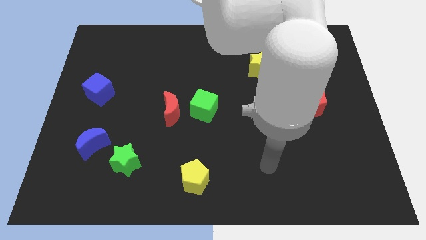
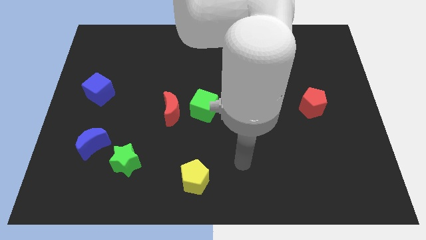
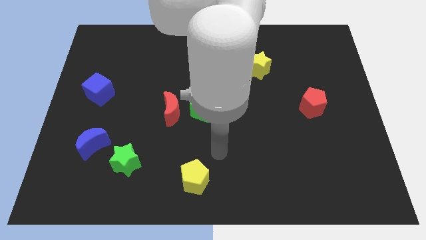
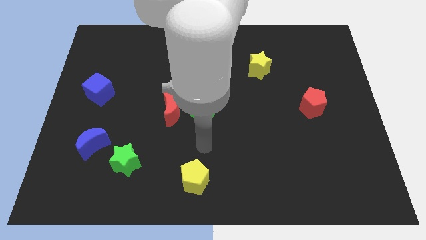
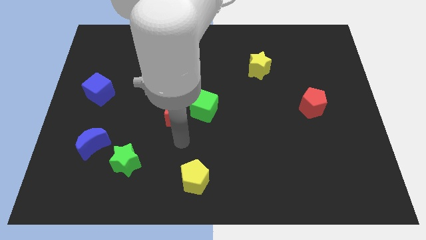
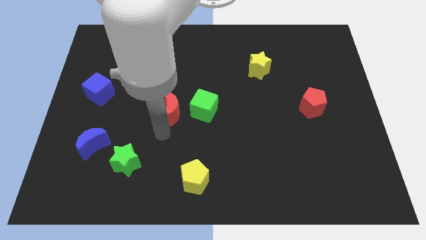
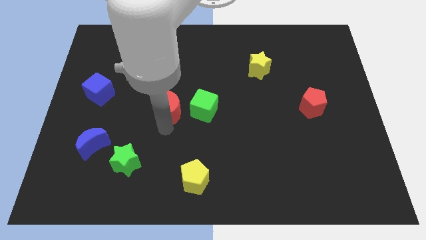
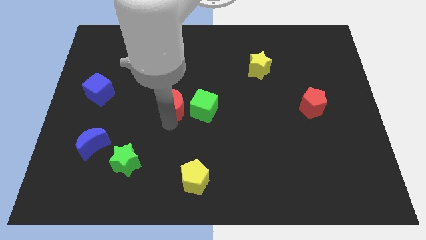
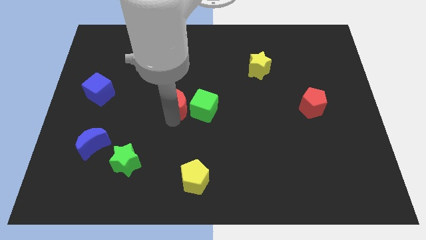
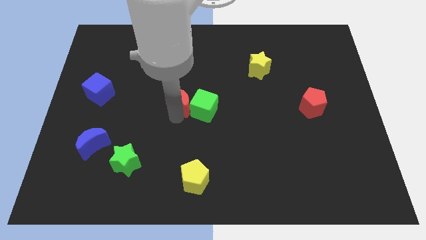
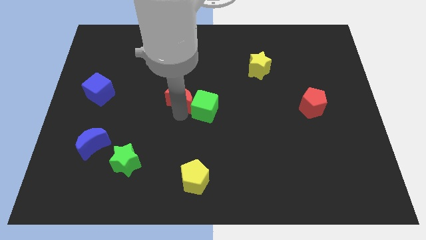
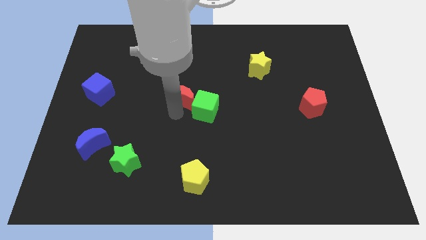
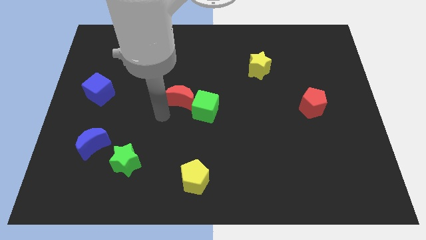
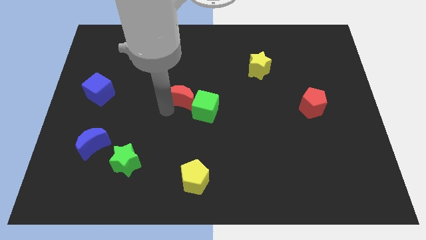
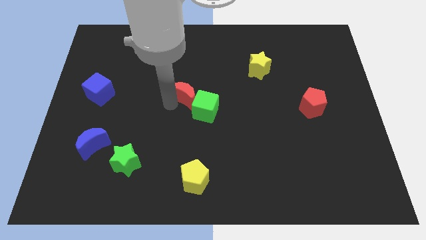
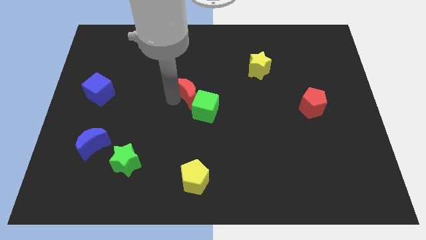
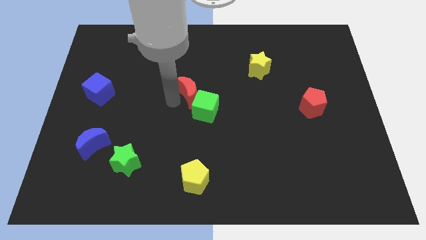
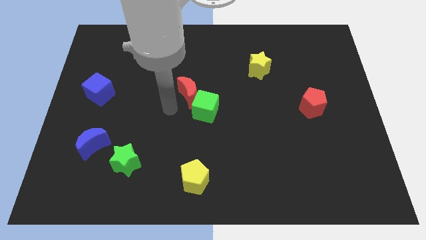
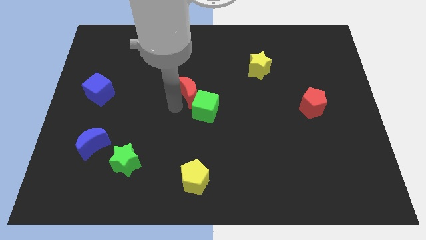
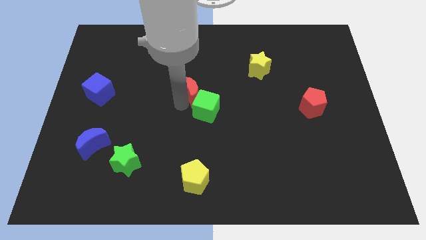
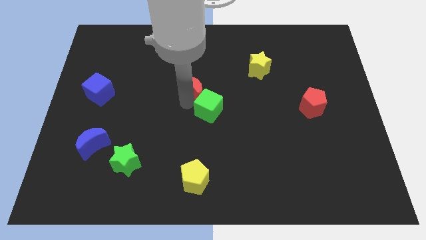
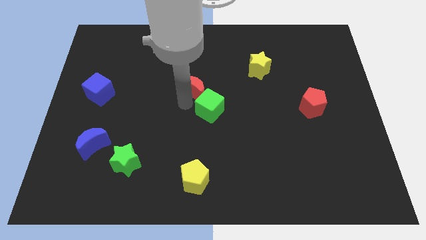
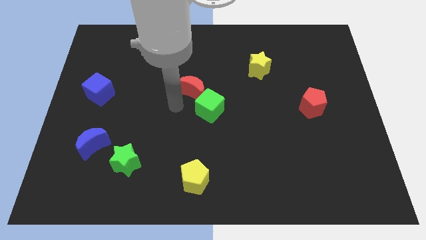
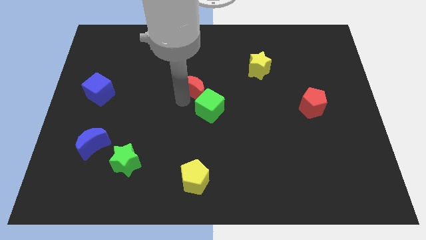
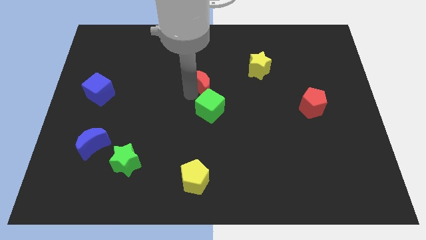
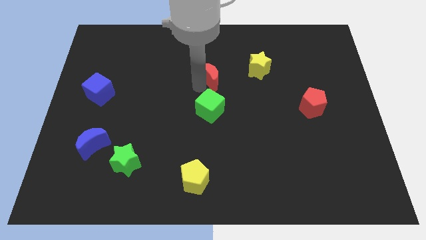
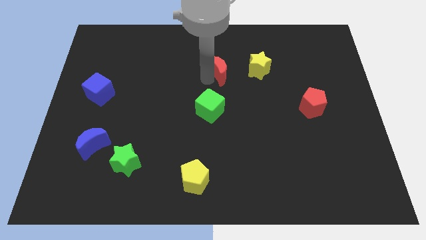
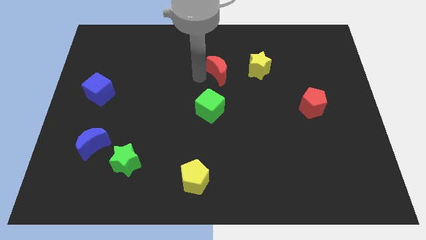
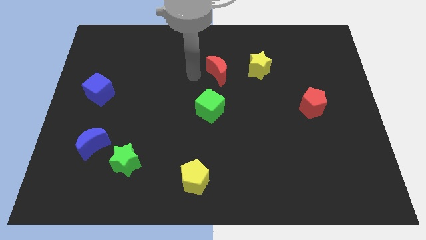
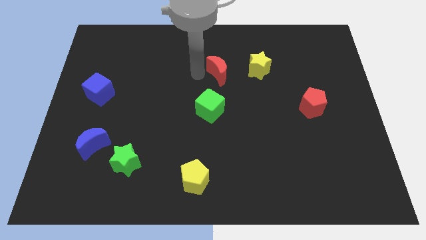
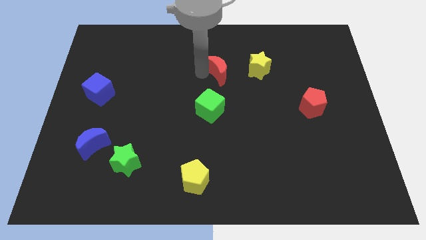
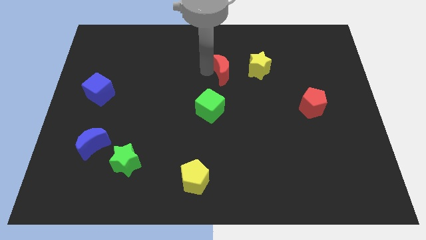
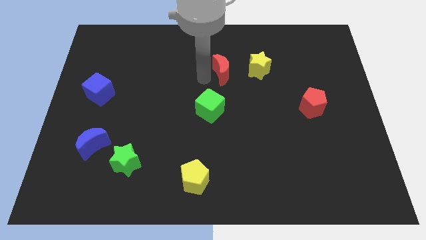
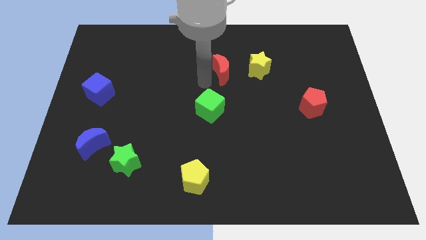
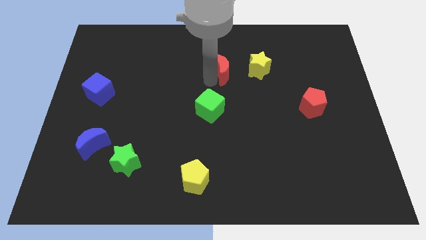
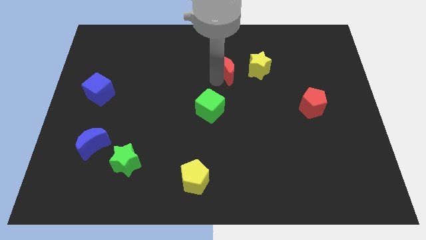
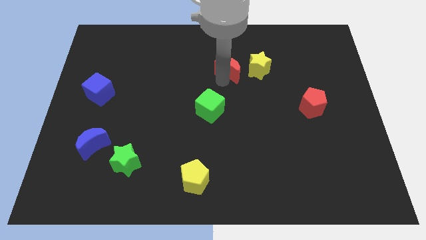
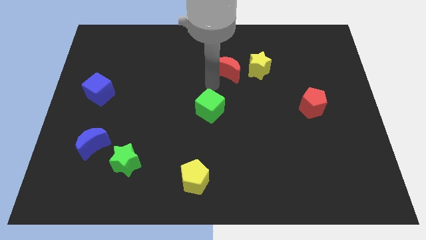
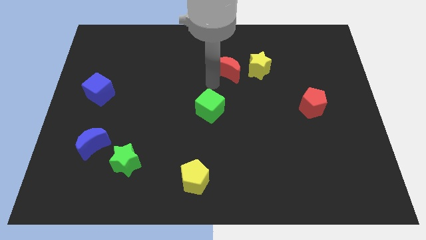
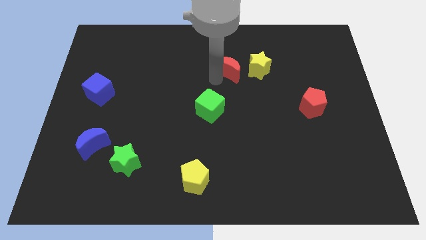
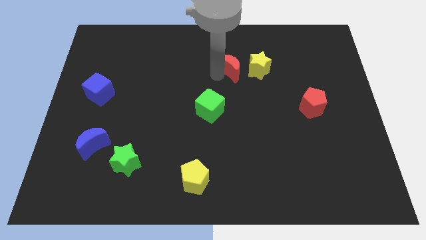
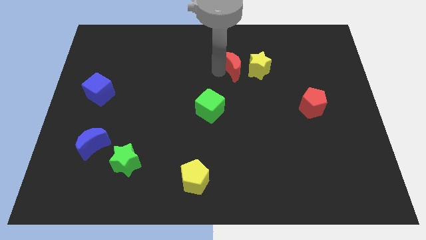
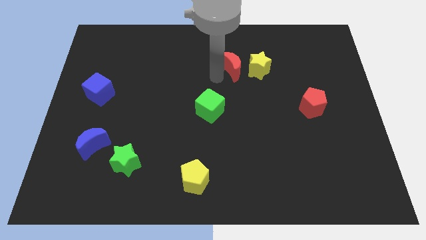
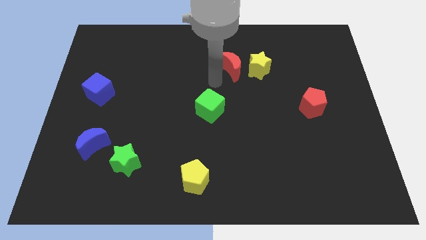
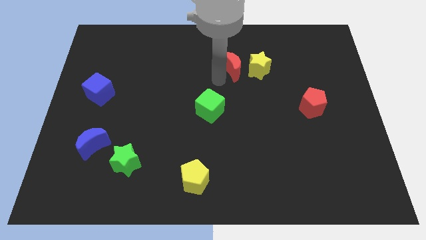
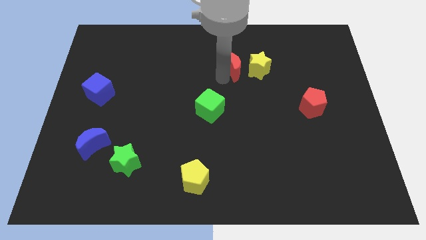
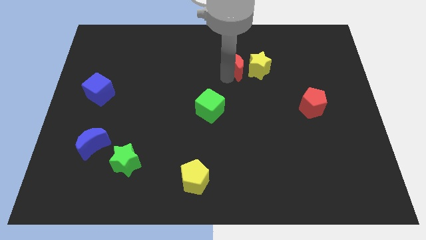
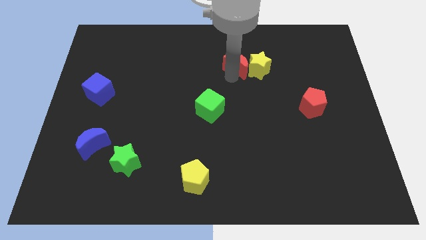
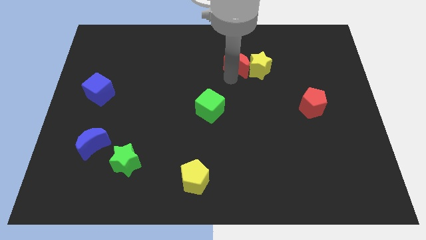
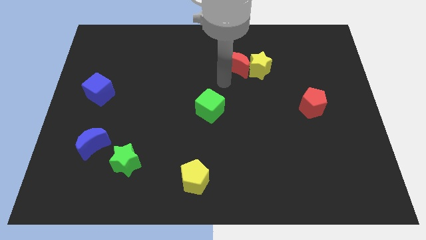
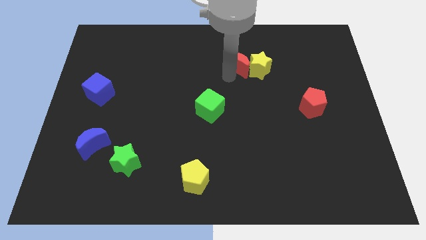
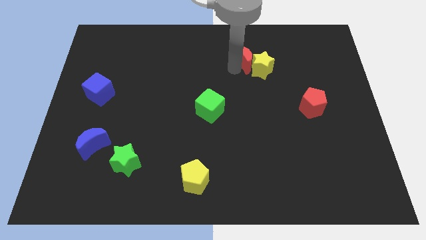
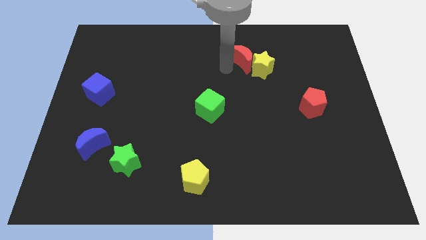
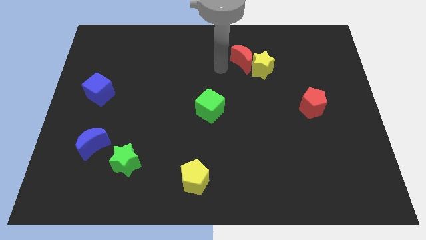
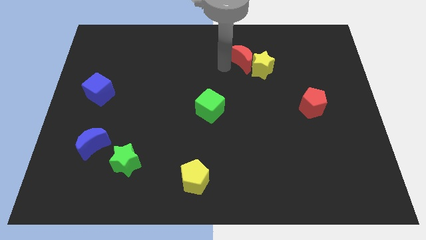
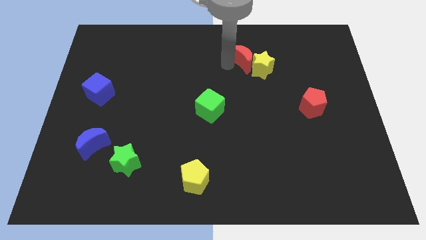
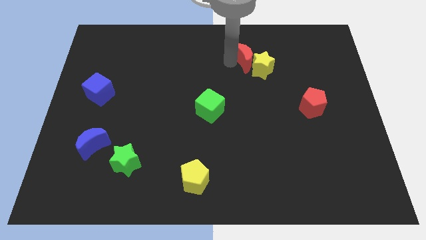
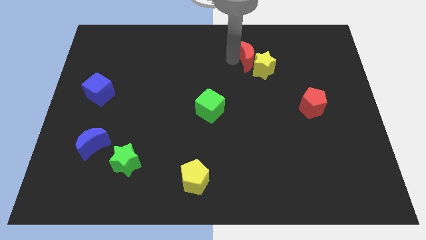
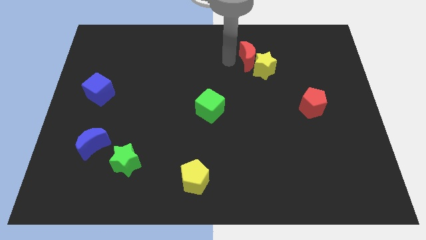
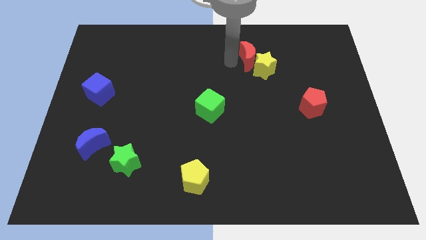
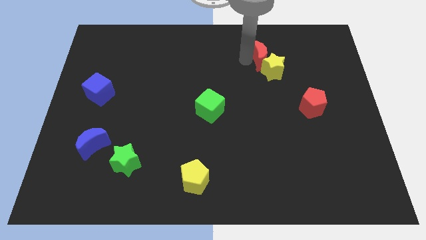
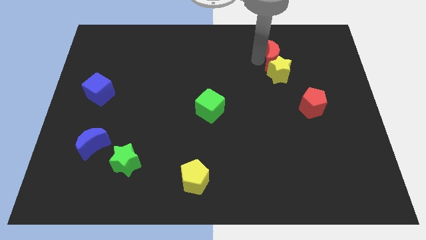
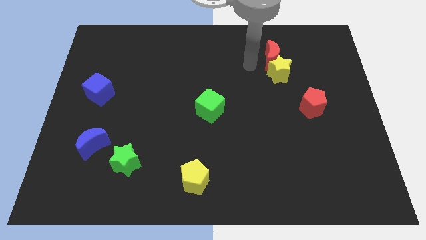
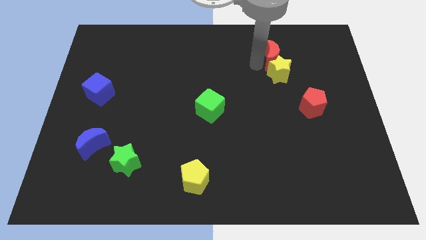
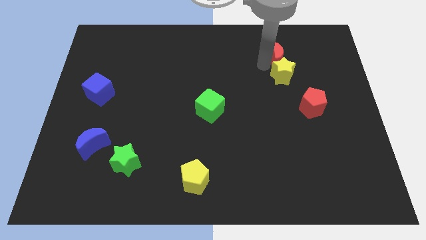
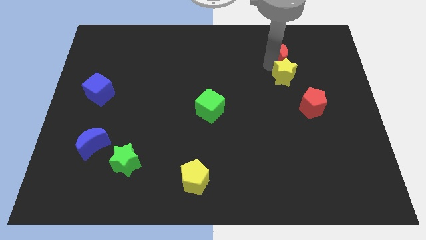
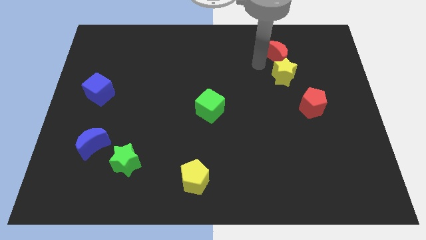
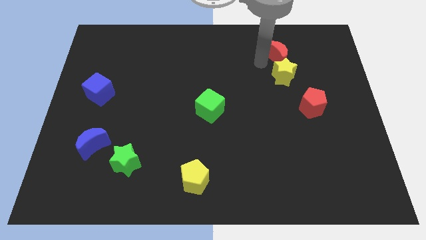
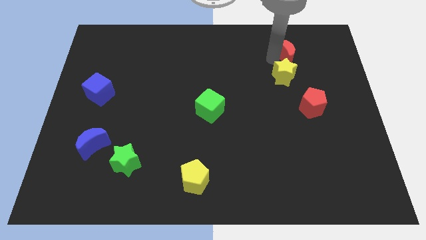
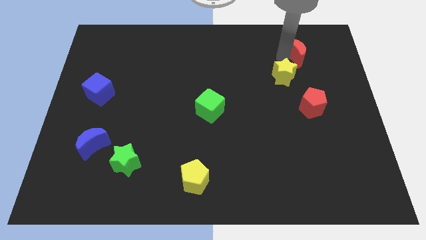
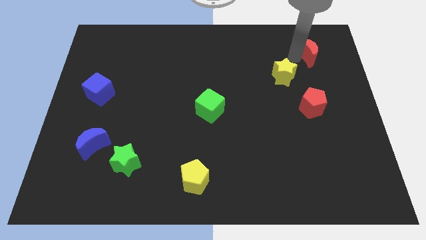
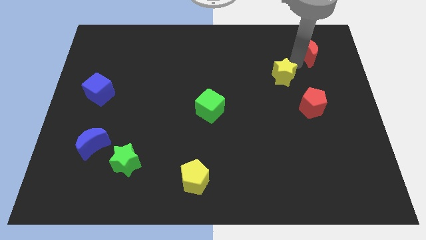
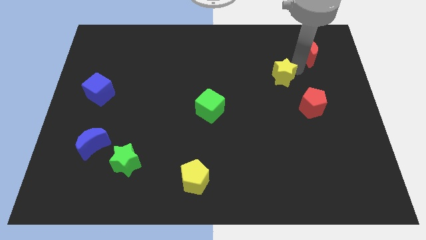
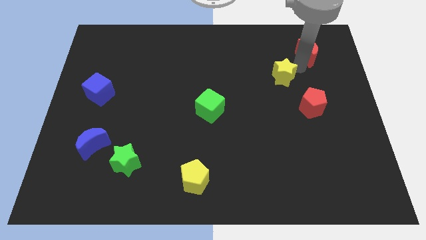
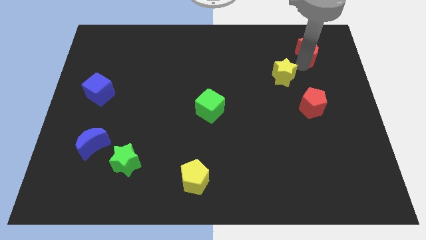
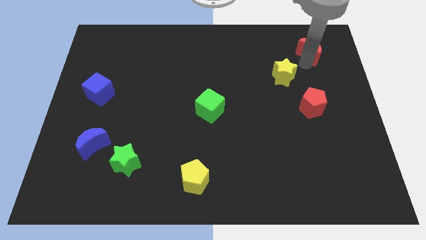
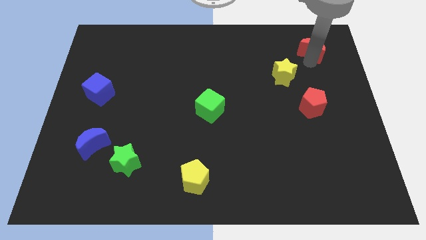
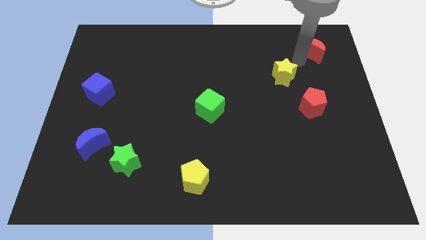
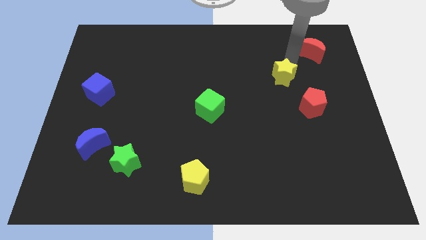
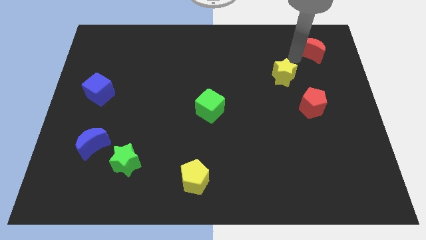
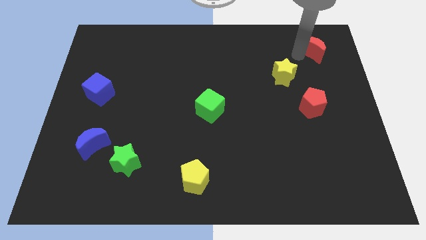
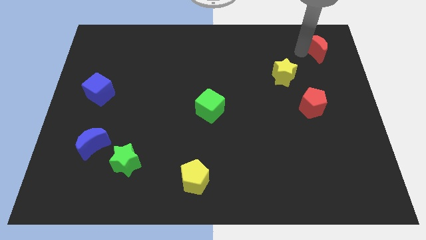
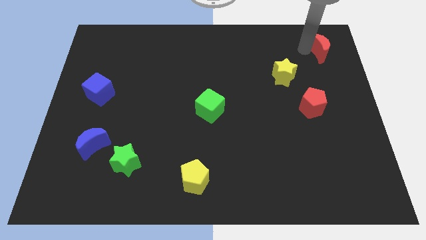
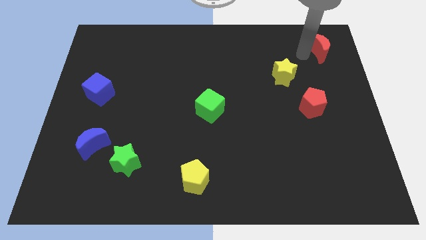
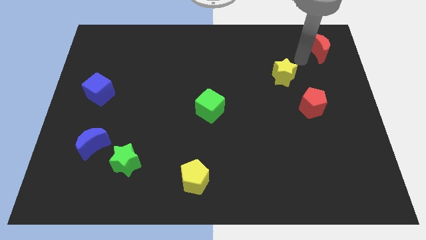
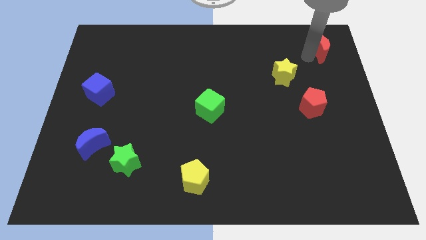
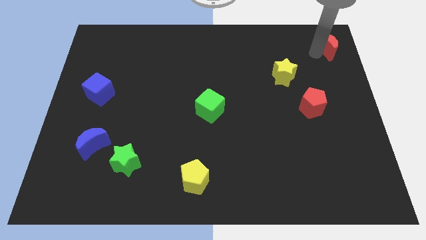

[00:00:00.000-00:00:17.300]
slide the red moon to the upper right corner
